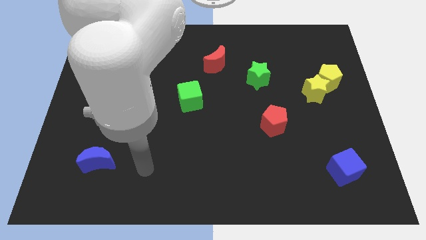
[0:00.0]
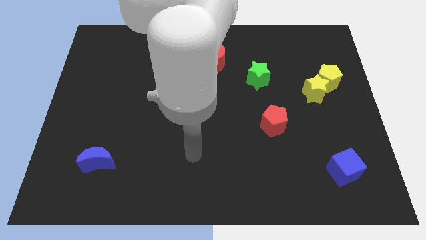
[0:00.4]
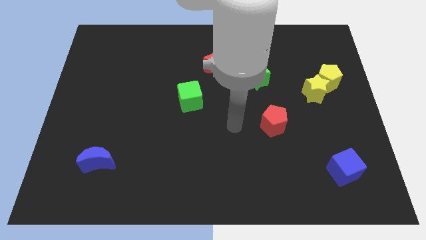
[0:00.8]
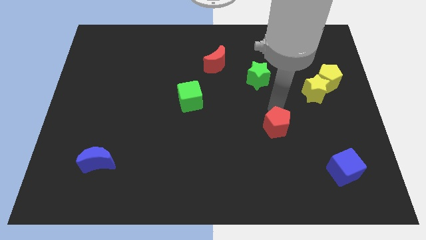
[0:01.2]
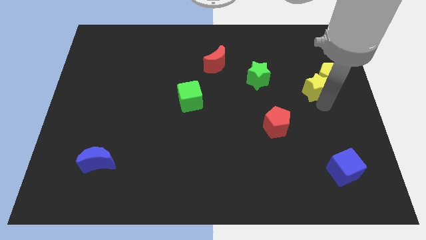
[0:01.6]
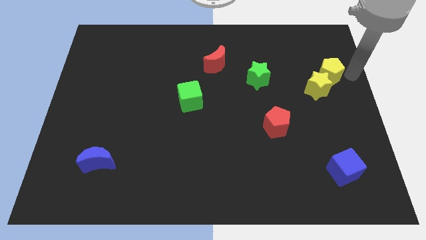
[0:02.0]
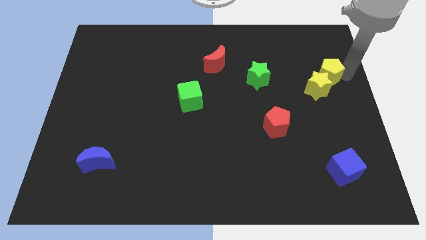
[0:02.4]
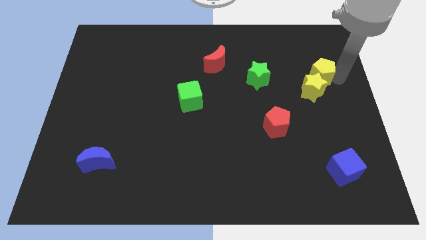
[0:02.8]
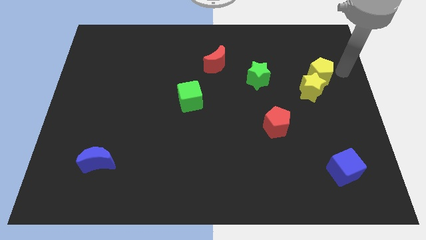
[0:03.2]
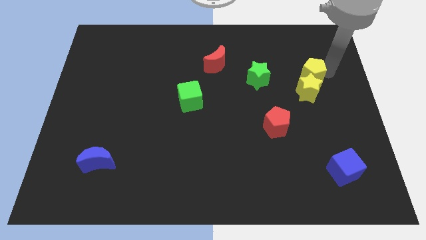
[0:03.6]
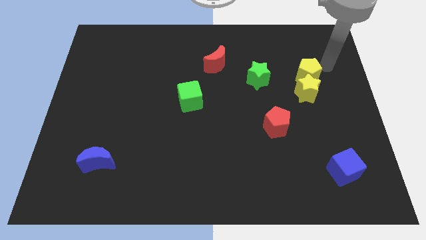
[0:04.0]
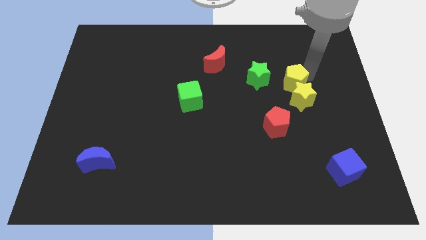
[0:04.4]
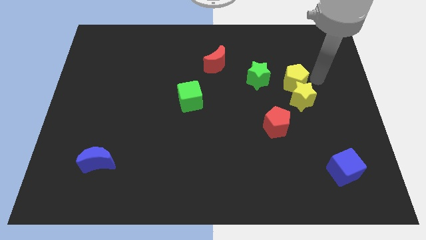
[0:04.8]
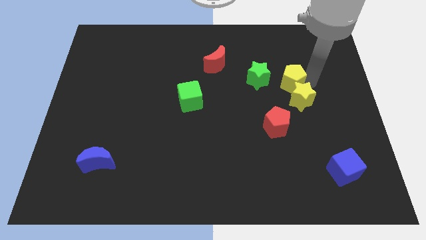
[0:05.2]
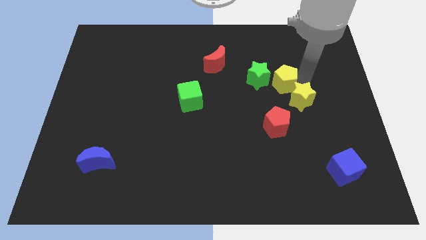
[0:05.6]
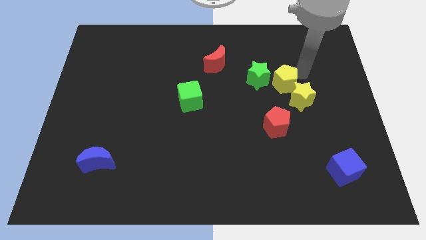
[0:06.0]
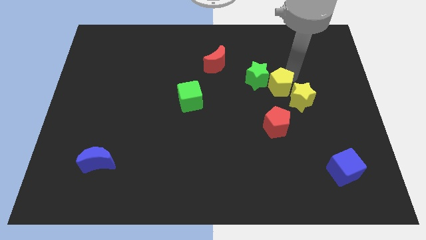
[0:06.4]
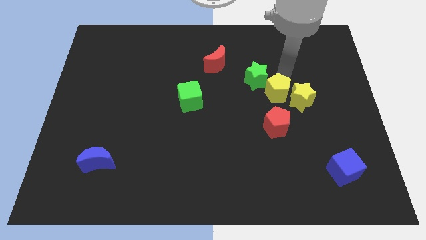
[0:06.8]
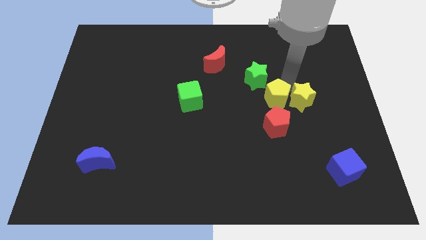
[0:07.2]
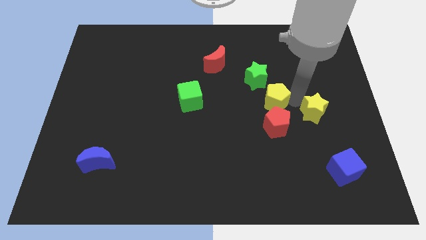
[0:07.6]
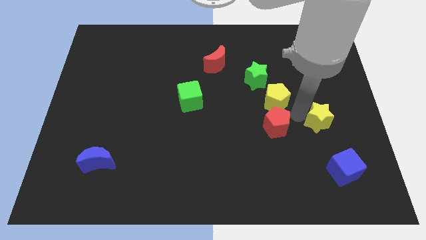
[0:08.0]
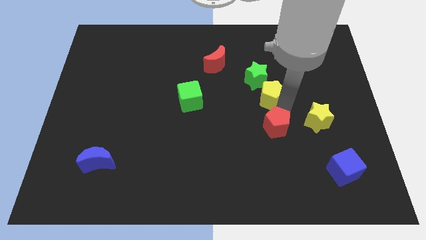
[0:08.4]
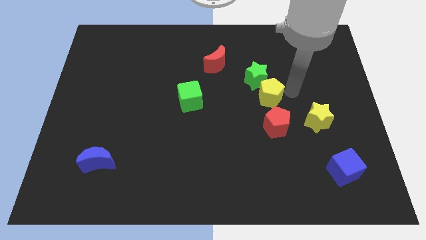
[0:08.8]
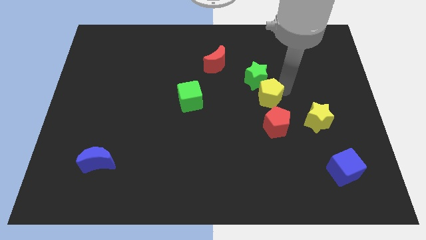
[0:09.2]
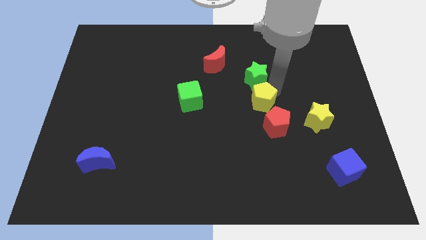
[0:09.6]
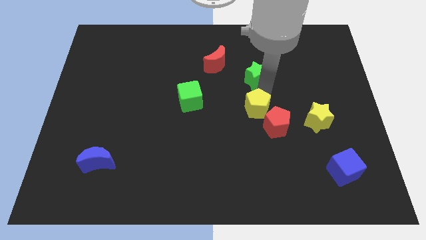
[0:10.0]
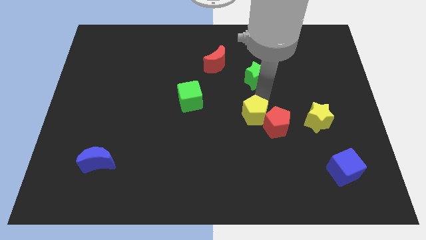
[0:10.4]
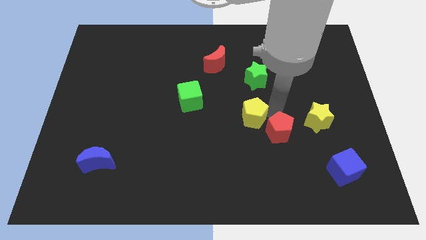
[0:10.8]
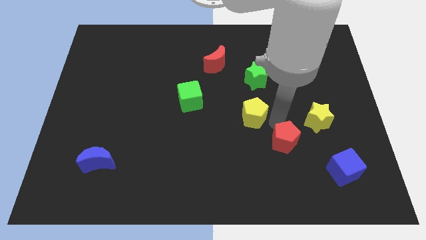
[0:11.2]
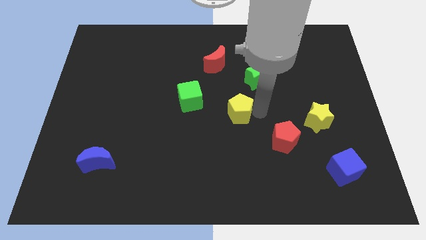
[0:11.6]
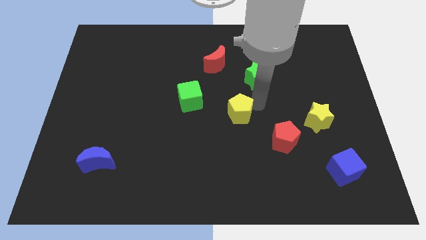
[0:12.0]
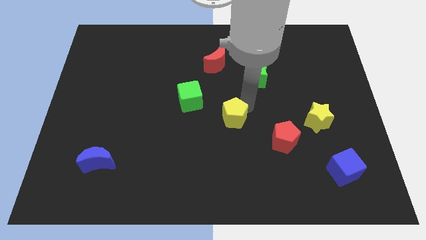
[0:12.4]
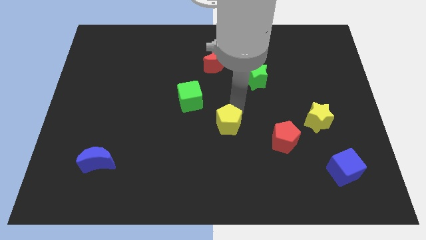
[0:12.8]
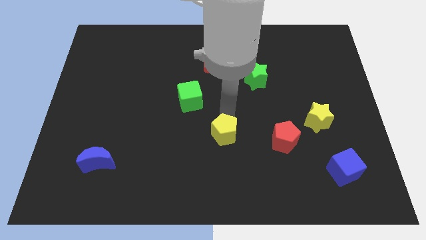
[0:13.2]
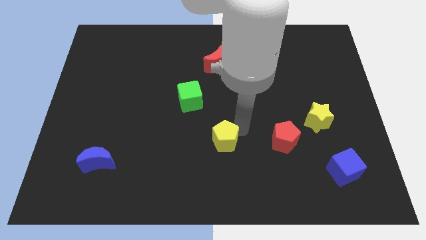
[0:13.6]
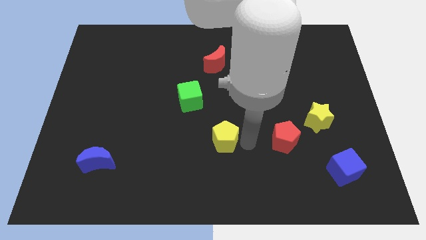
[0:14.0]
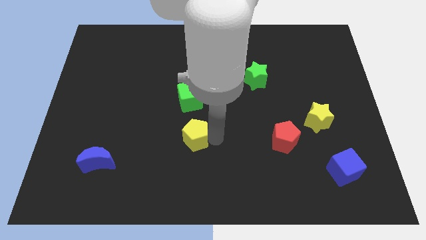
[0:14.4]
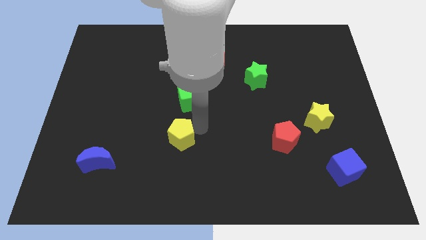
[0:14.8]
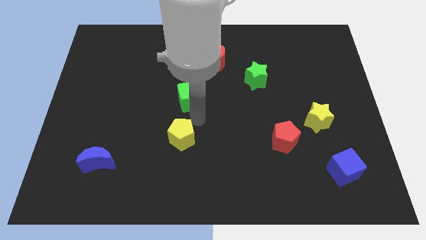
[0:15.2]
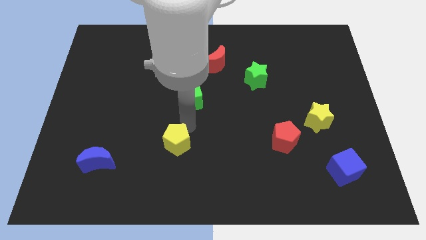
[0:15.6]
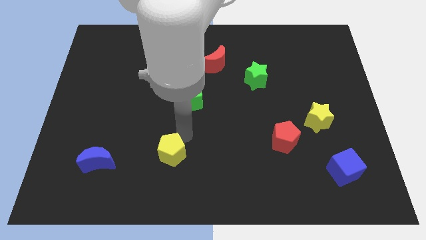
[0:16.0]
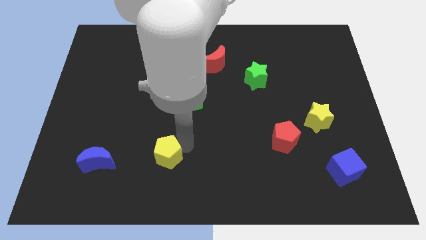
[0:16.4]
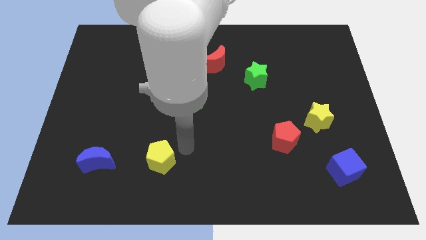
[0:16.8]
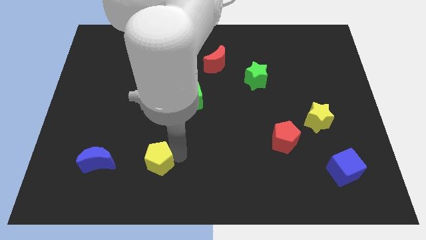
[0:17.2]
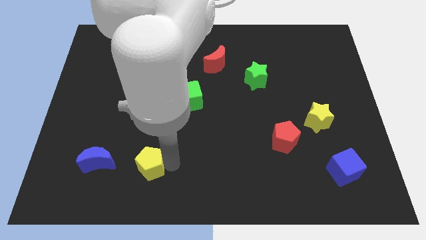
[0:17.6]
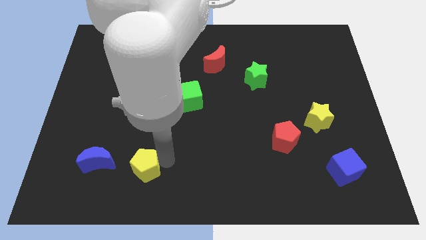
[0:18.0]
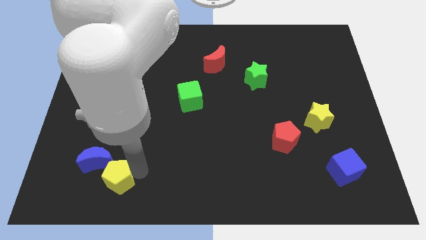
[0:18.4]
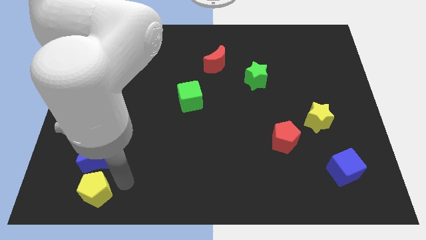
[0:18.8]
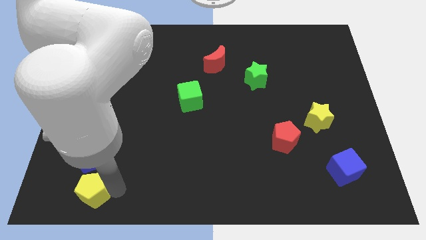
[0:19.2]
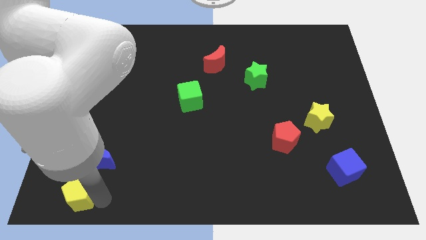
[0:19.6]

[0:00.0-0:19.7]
move the yellow pentagon to the bottom left corner

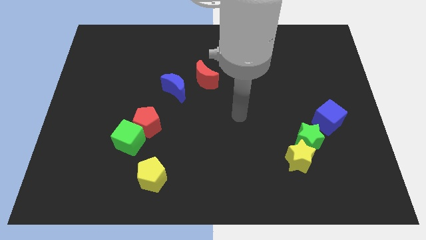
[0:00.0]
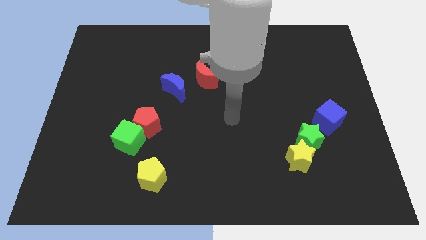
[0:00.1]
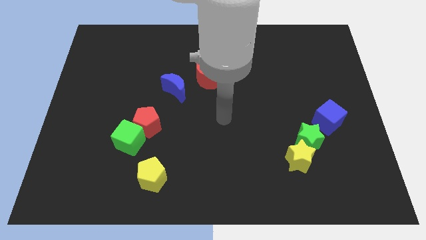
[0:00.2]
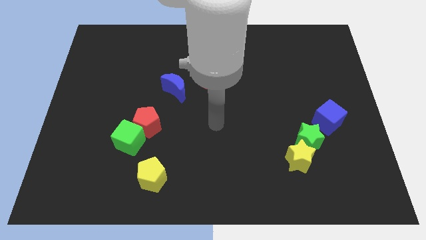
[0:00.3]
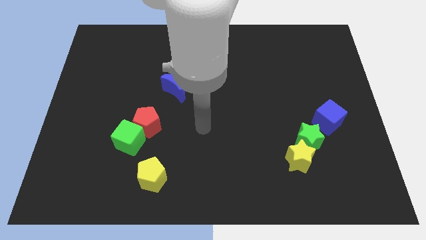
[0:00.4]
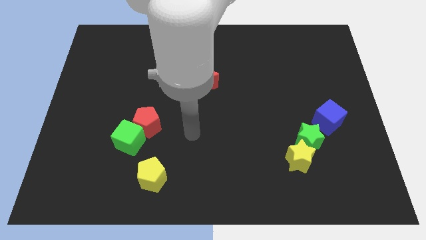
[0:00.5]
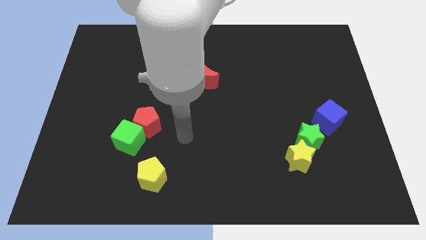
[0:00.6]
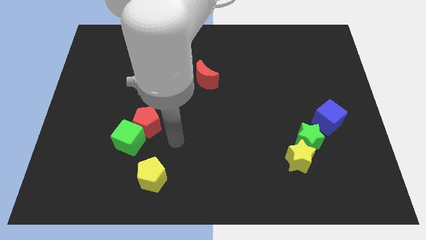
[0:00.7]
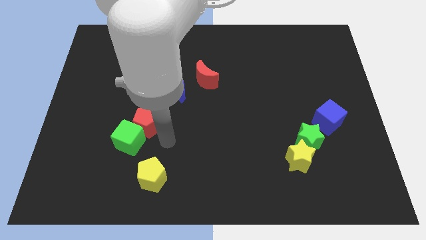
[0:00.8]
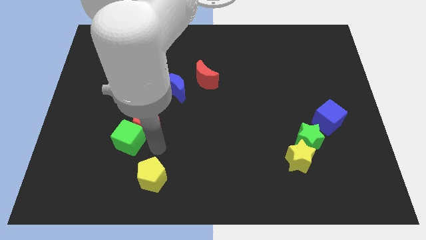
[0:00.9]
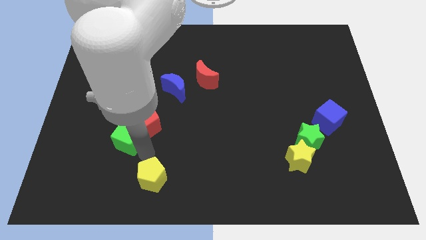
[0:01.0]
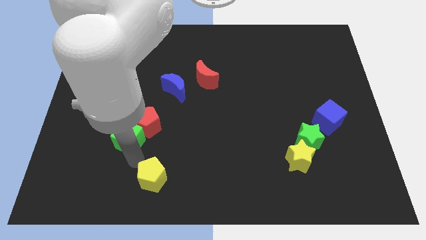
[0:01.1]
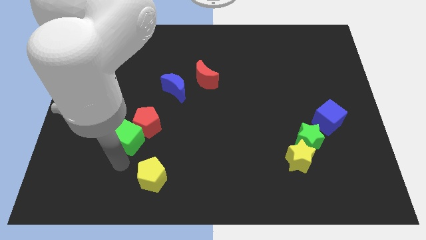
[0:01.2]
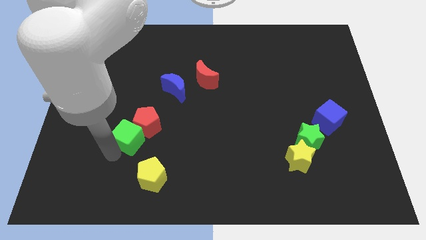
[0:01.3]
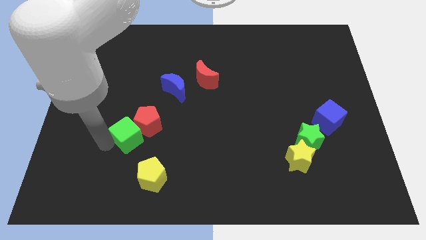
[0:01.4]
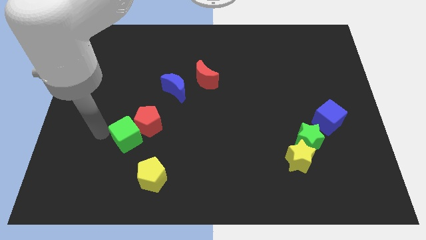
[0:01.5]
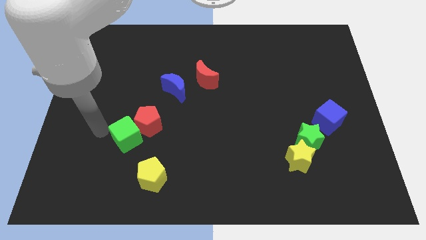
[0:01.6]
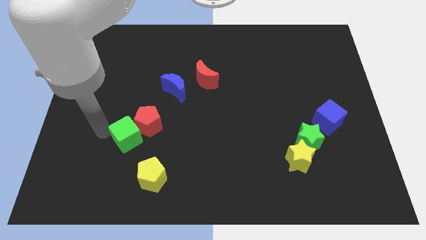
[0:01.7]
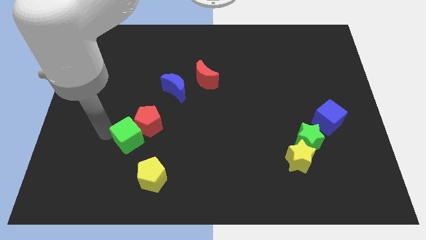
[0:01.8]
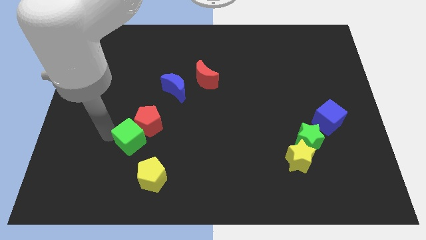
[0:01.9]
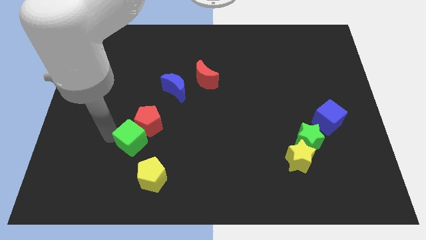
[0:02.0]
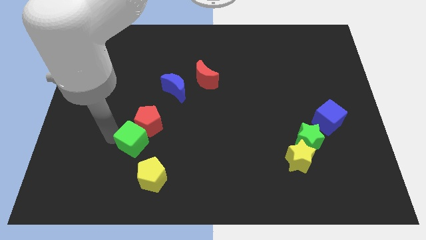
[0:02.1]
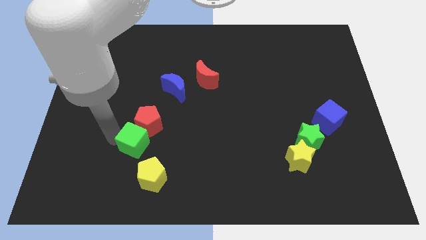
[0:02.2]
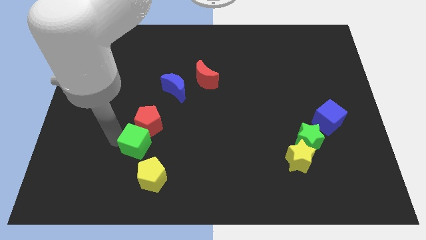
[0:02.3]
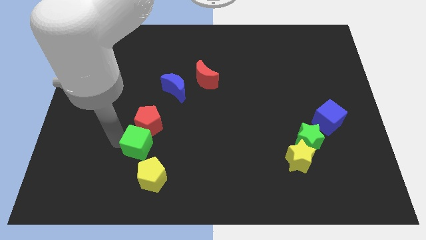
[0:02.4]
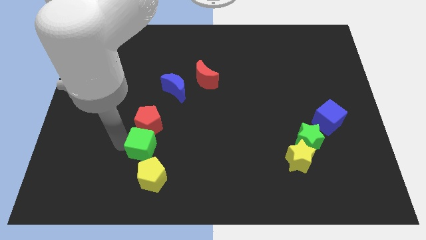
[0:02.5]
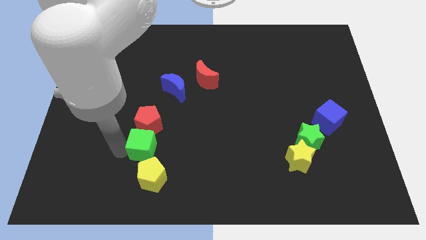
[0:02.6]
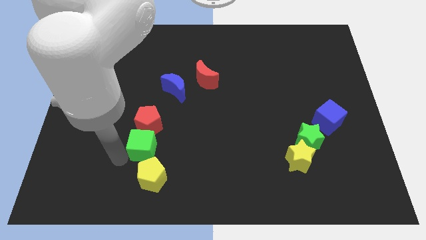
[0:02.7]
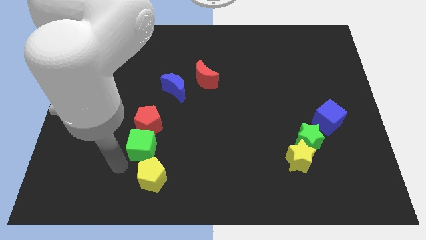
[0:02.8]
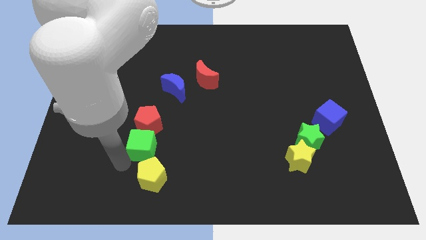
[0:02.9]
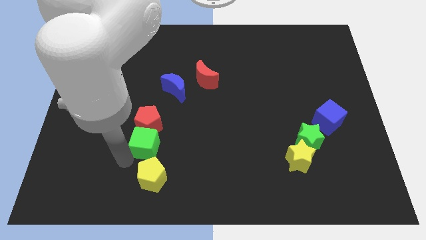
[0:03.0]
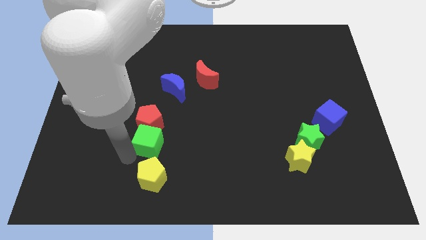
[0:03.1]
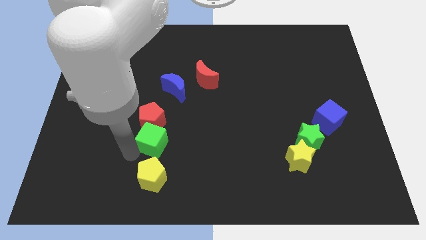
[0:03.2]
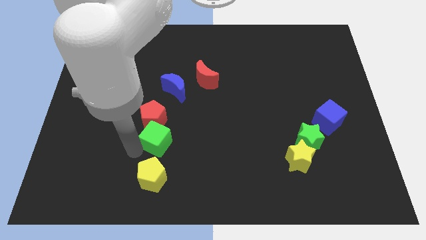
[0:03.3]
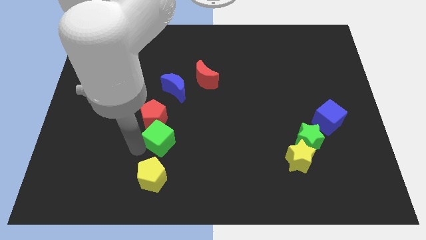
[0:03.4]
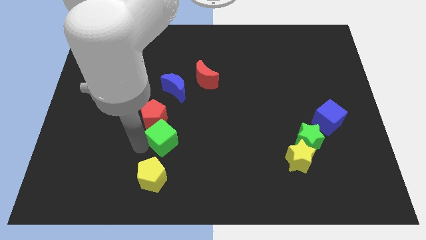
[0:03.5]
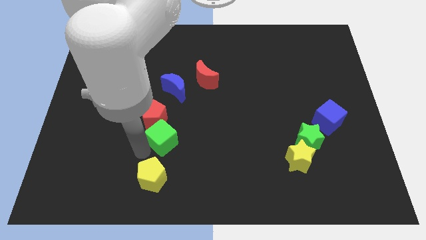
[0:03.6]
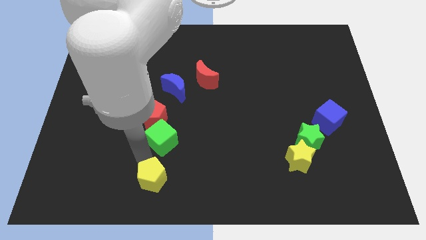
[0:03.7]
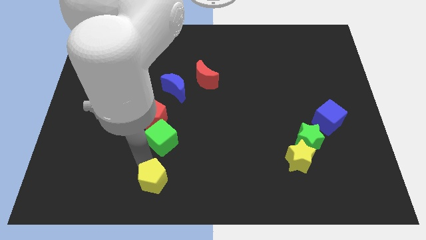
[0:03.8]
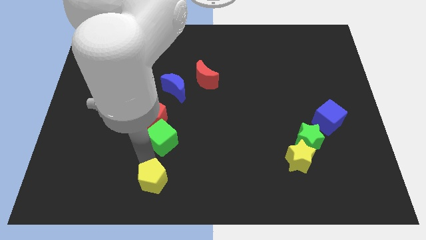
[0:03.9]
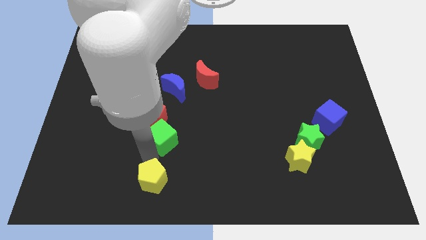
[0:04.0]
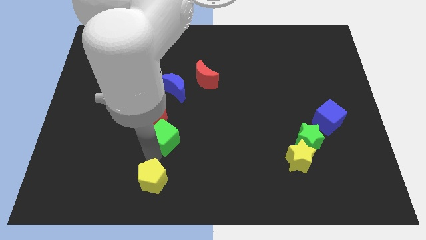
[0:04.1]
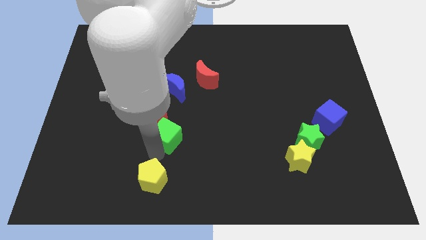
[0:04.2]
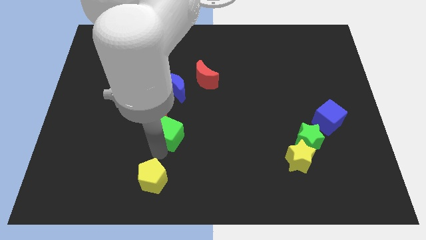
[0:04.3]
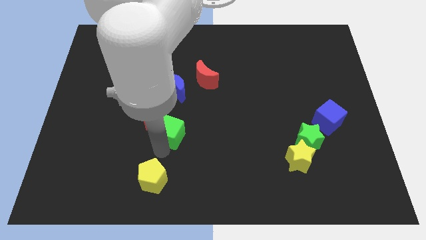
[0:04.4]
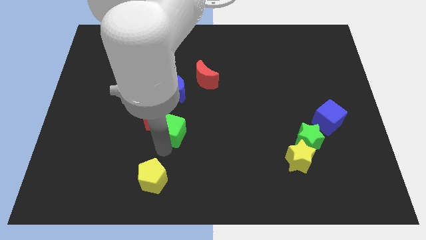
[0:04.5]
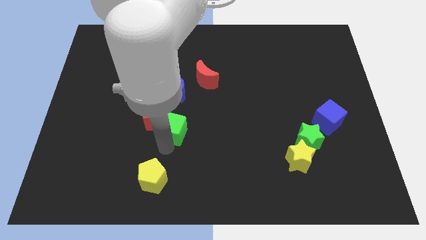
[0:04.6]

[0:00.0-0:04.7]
move the green cube to the middle of the board
